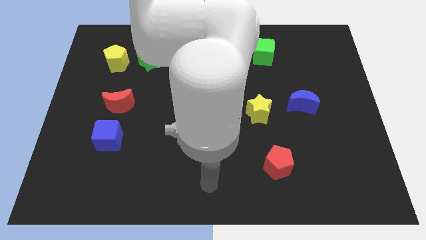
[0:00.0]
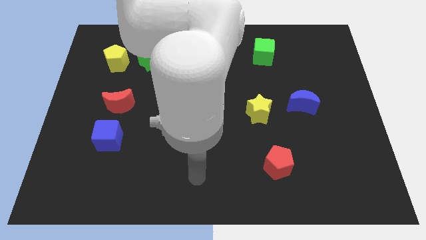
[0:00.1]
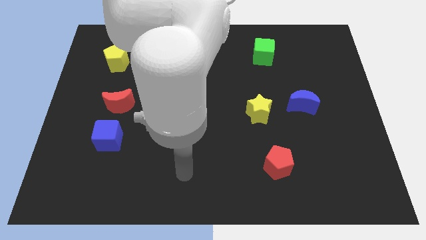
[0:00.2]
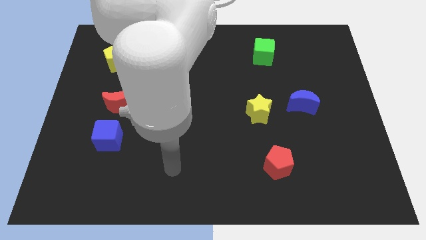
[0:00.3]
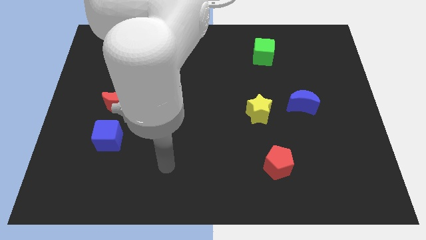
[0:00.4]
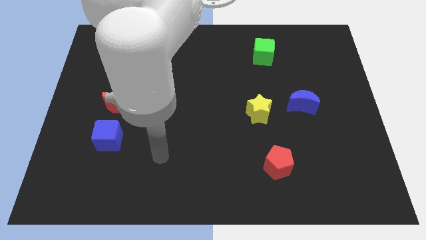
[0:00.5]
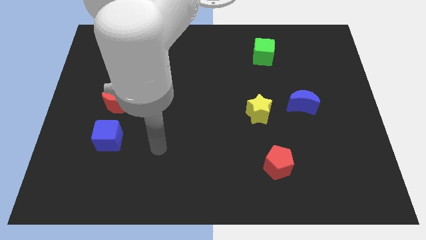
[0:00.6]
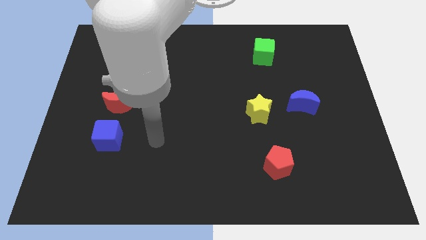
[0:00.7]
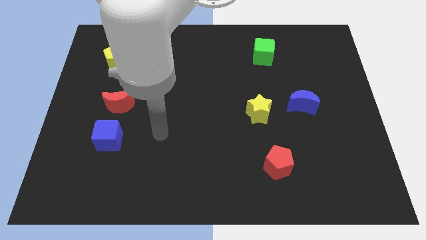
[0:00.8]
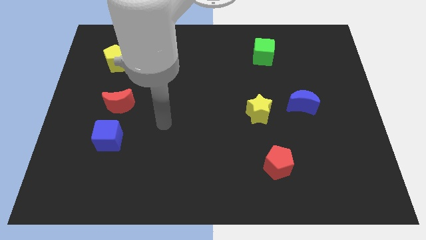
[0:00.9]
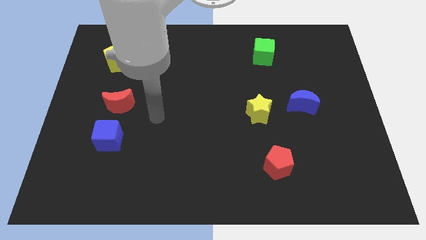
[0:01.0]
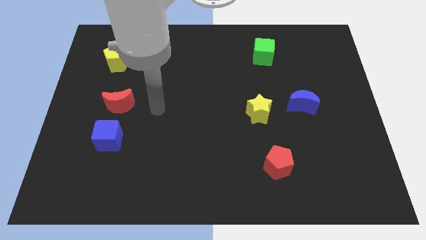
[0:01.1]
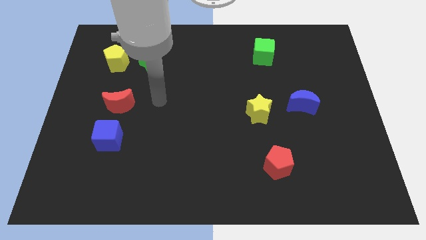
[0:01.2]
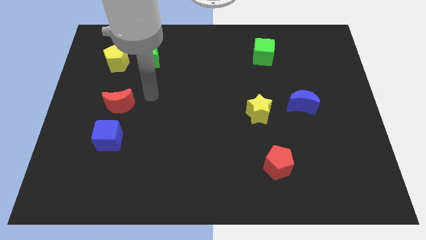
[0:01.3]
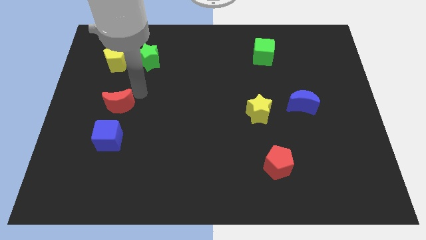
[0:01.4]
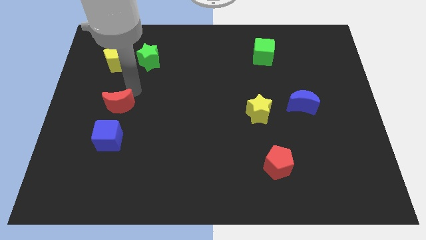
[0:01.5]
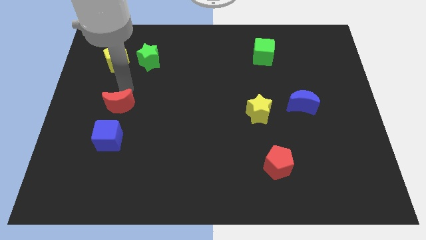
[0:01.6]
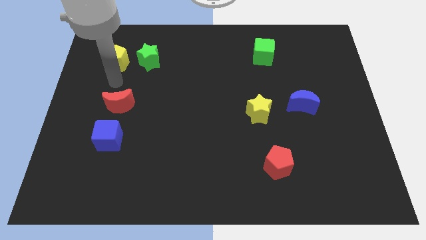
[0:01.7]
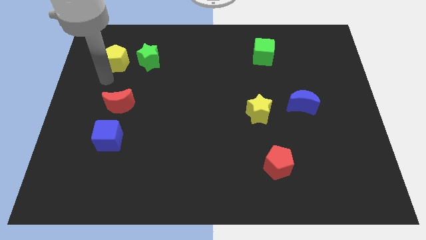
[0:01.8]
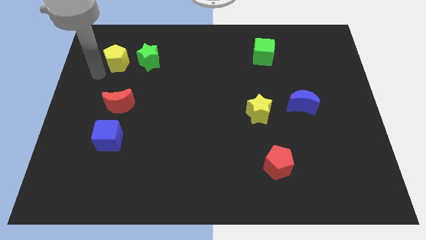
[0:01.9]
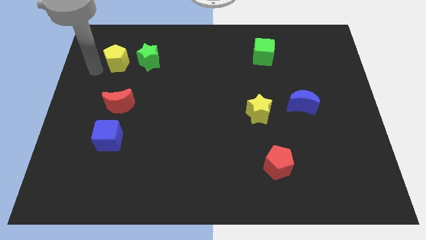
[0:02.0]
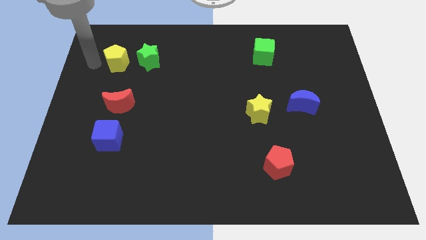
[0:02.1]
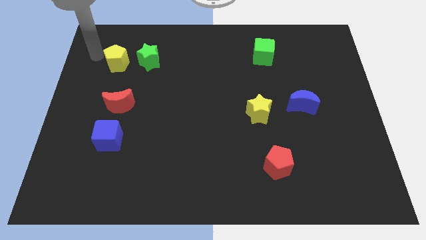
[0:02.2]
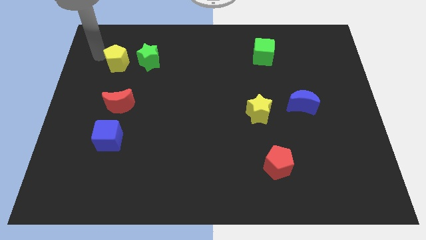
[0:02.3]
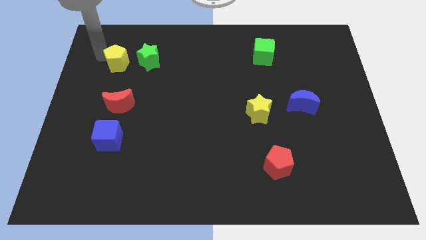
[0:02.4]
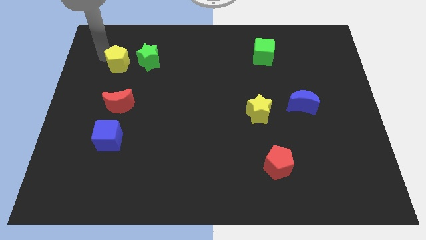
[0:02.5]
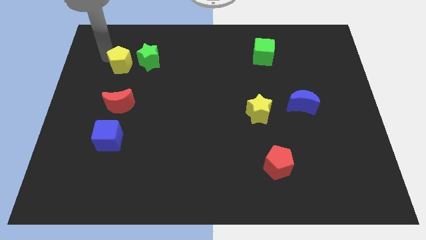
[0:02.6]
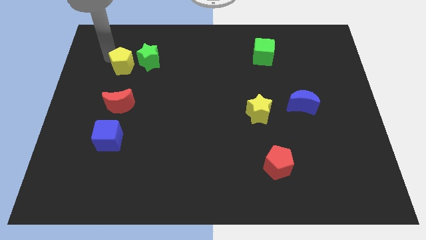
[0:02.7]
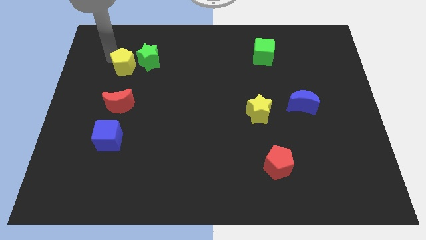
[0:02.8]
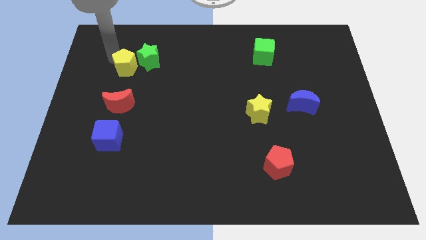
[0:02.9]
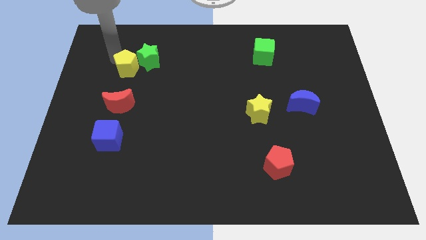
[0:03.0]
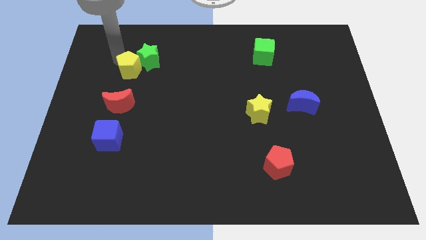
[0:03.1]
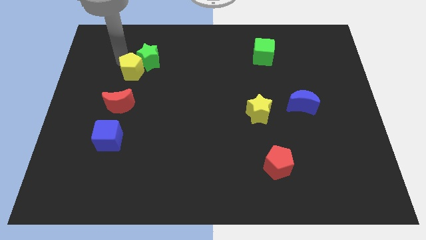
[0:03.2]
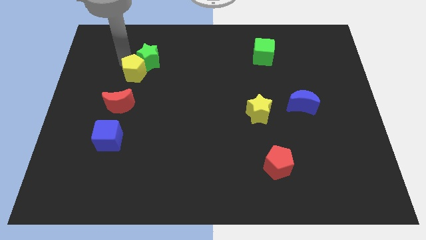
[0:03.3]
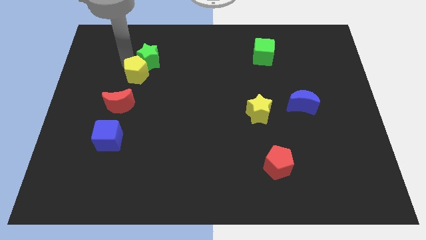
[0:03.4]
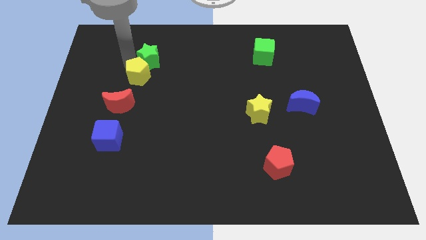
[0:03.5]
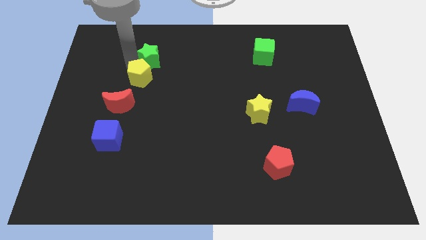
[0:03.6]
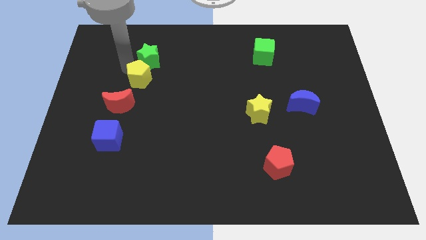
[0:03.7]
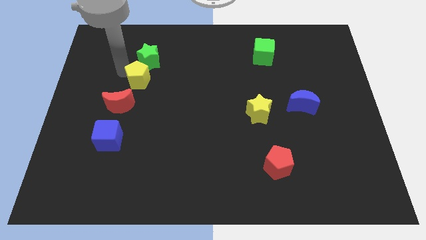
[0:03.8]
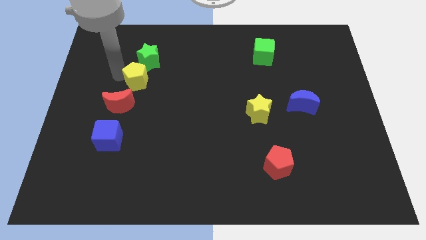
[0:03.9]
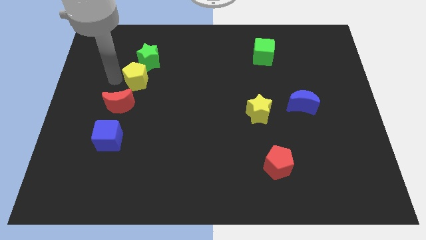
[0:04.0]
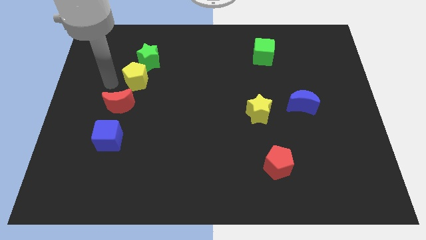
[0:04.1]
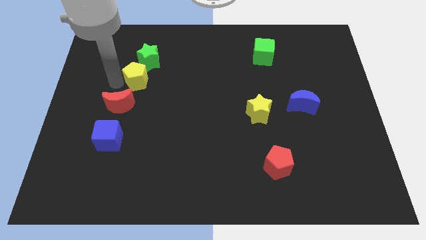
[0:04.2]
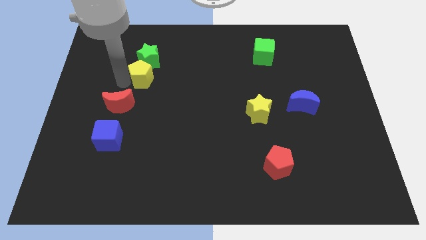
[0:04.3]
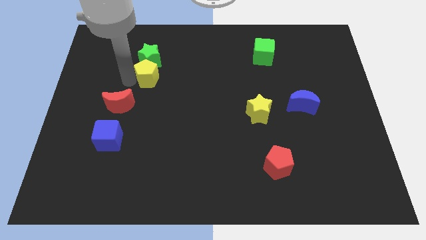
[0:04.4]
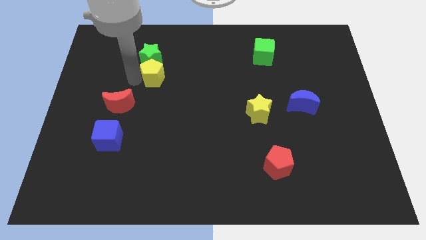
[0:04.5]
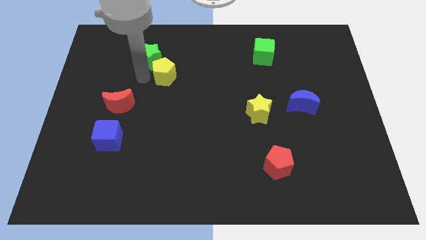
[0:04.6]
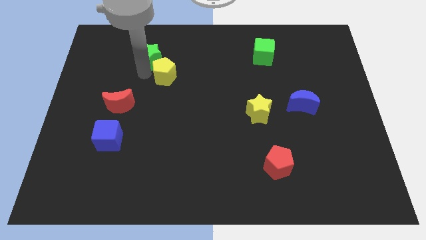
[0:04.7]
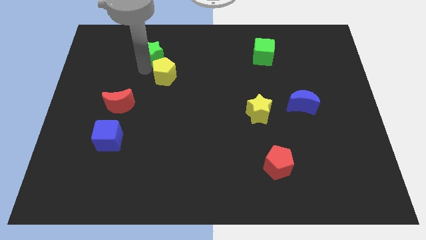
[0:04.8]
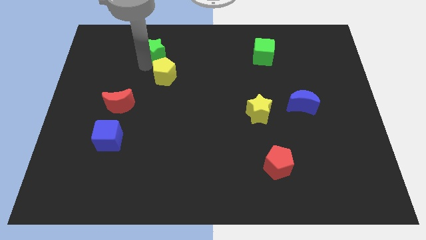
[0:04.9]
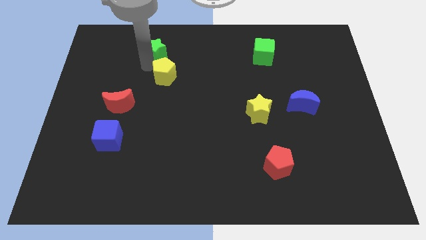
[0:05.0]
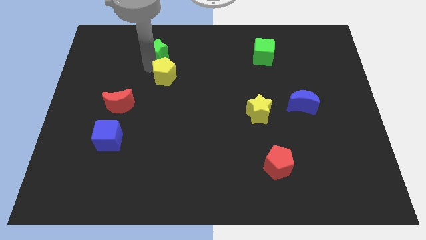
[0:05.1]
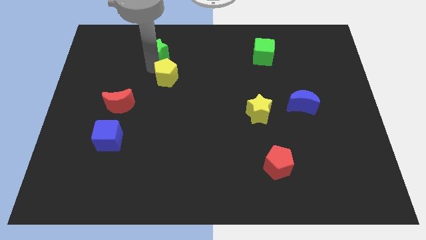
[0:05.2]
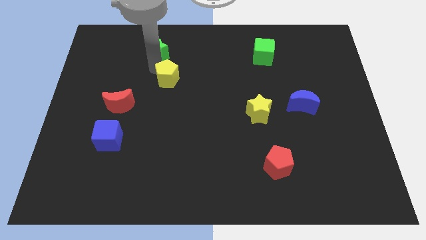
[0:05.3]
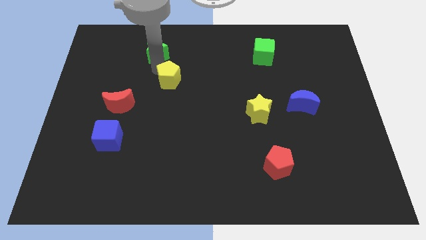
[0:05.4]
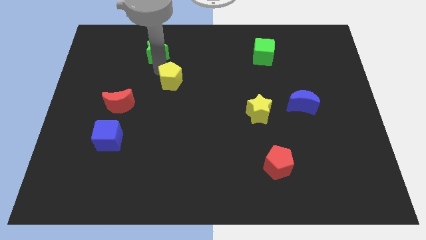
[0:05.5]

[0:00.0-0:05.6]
slide the yellow pentagon to the center of the board
